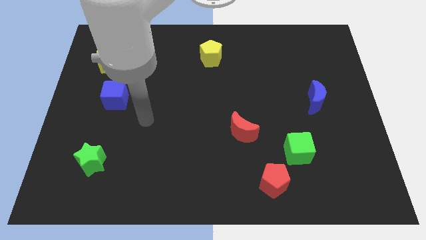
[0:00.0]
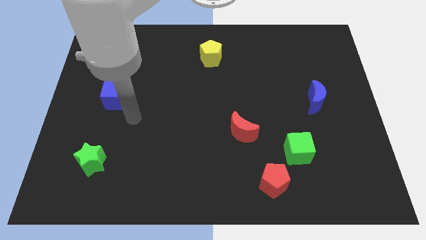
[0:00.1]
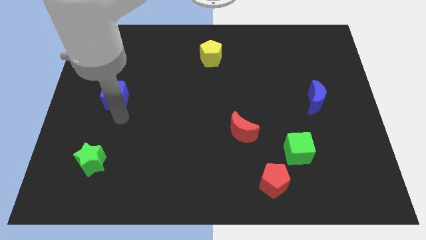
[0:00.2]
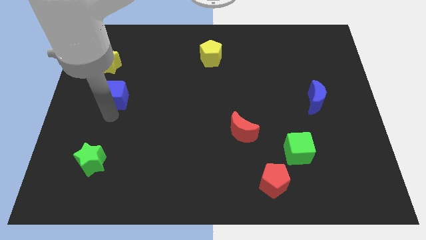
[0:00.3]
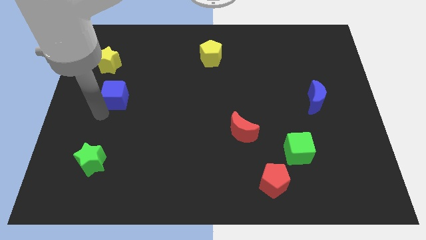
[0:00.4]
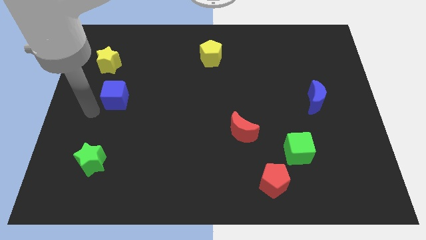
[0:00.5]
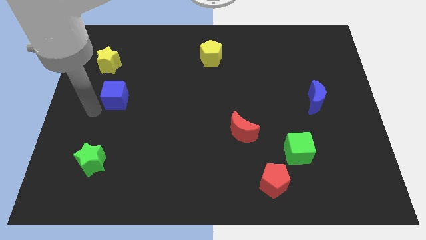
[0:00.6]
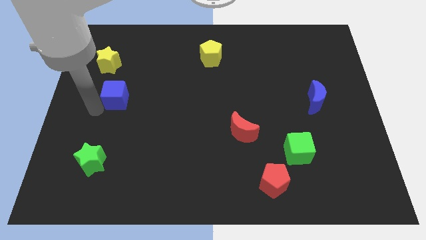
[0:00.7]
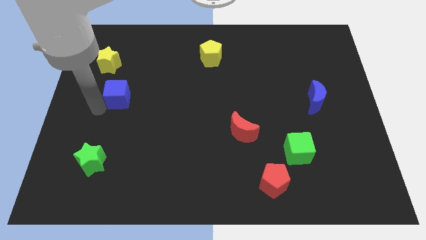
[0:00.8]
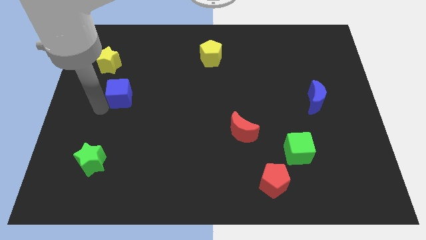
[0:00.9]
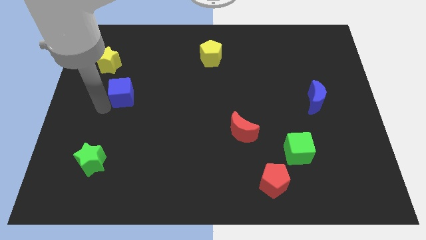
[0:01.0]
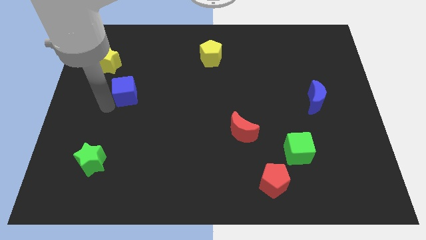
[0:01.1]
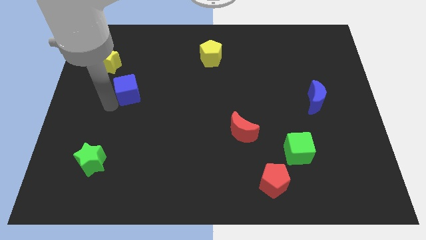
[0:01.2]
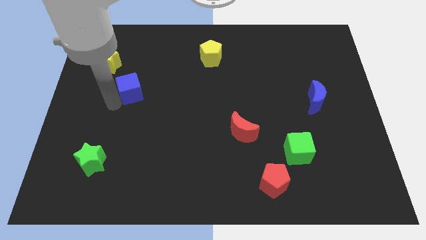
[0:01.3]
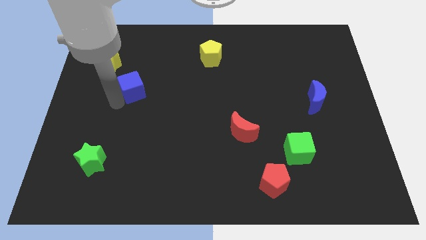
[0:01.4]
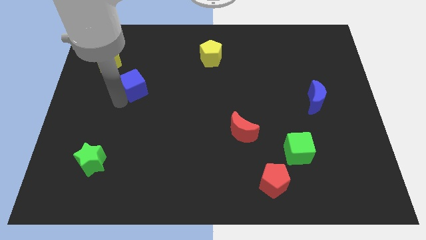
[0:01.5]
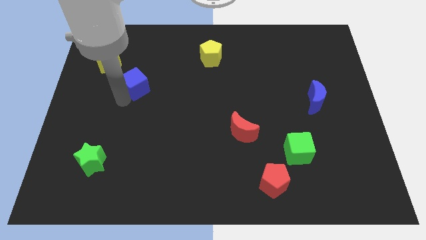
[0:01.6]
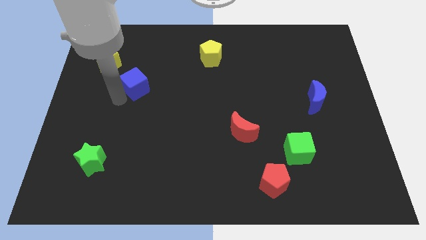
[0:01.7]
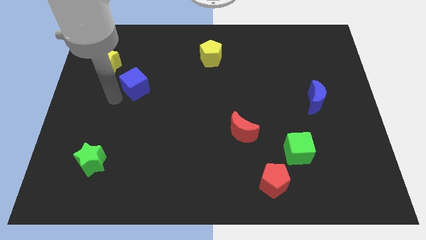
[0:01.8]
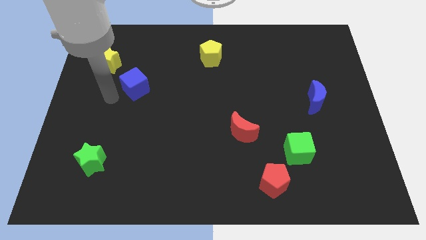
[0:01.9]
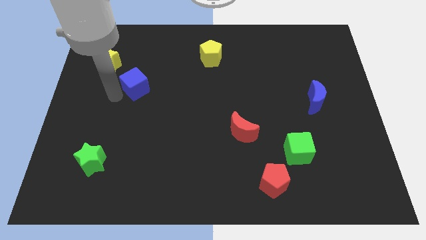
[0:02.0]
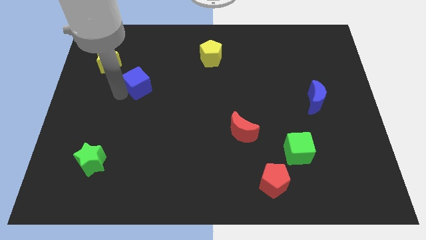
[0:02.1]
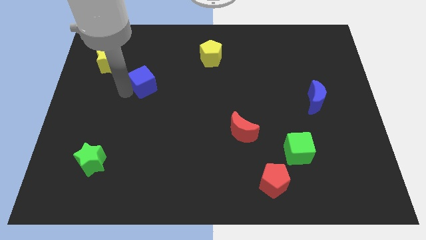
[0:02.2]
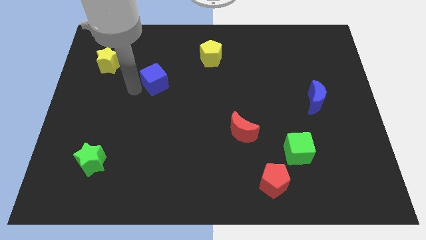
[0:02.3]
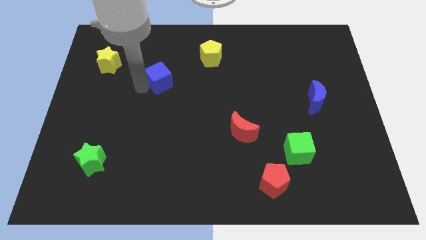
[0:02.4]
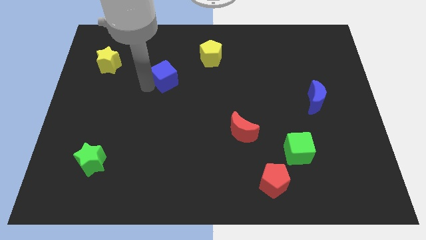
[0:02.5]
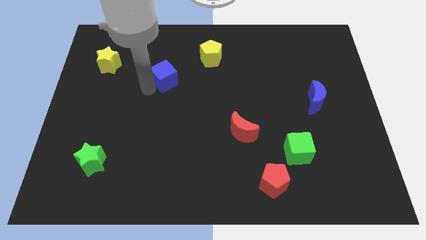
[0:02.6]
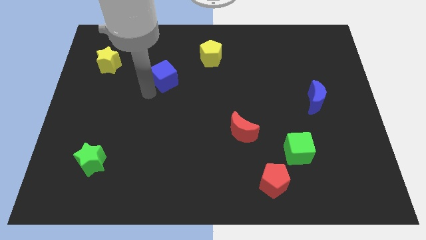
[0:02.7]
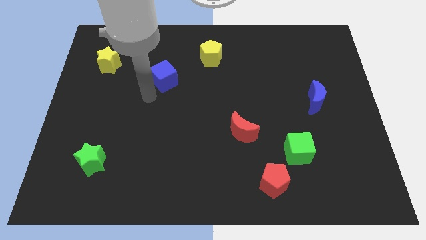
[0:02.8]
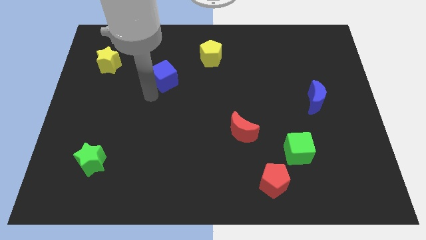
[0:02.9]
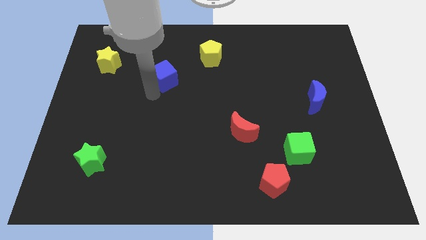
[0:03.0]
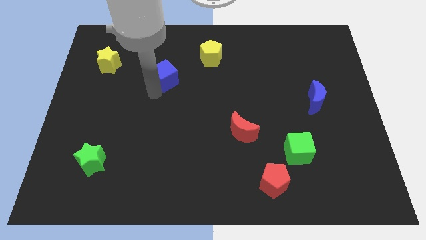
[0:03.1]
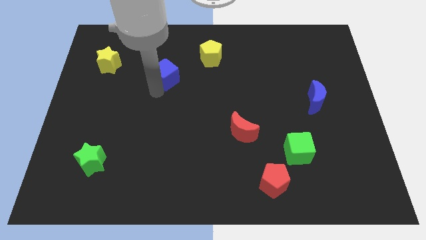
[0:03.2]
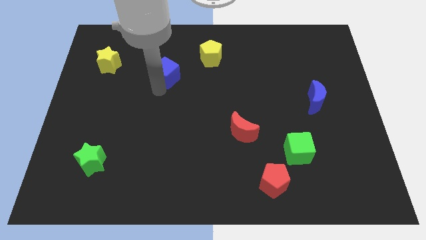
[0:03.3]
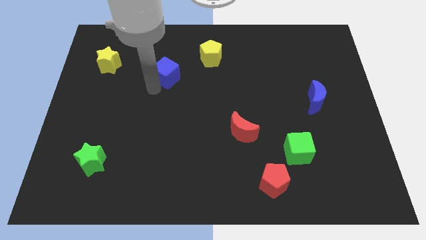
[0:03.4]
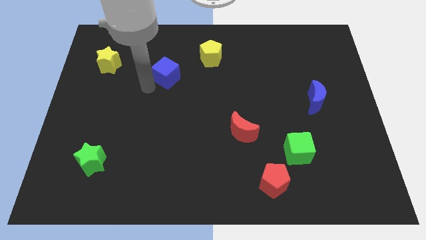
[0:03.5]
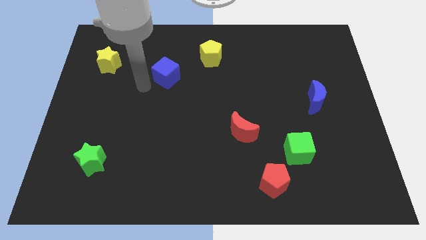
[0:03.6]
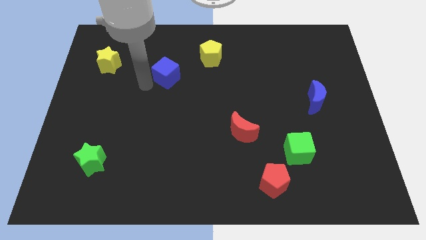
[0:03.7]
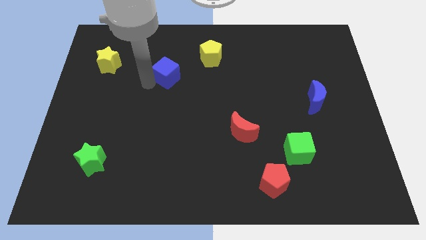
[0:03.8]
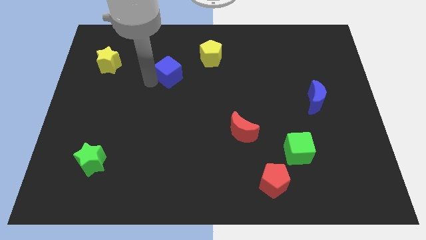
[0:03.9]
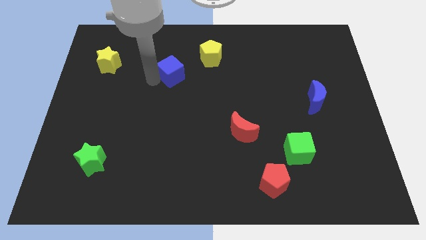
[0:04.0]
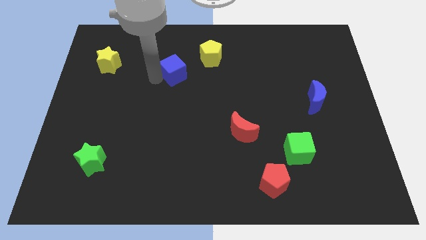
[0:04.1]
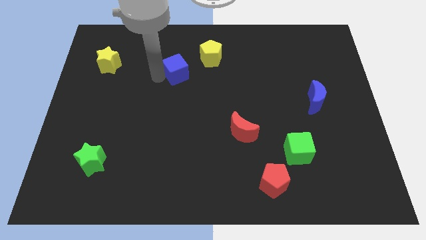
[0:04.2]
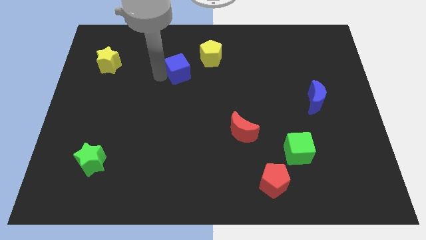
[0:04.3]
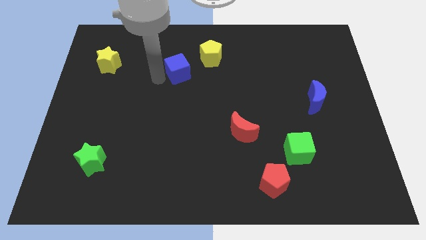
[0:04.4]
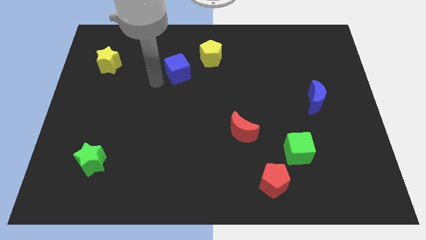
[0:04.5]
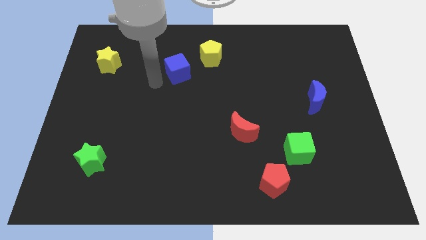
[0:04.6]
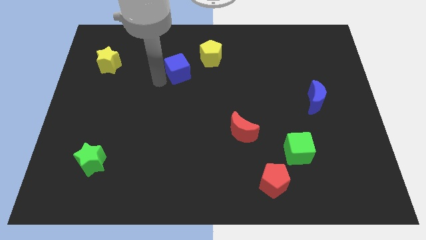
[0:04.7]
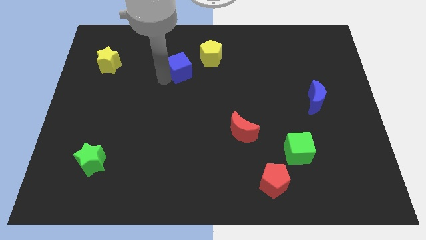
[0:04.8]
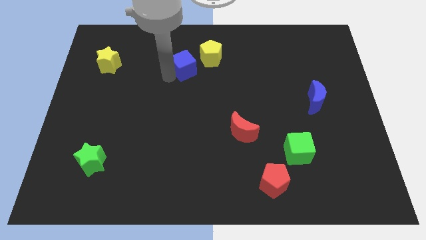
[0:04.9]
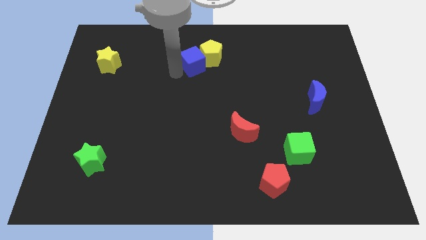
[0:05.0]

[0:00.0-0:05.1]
push the blue cube close to the yellow pentagon

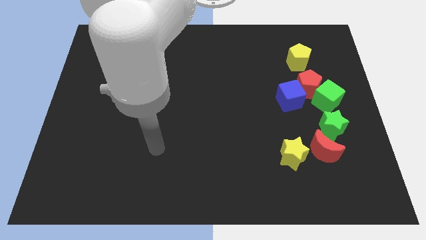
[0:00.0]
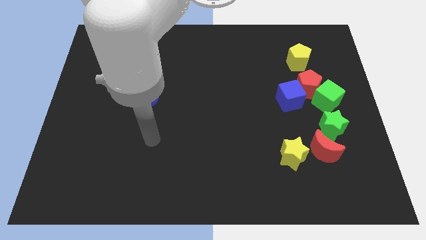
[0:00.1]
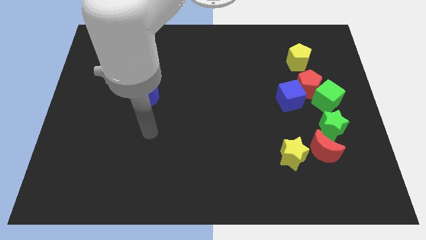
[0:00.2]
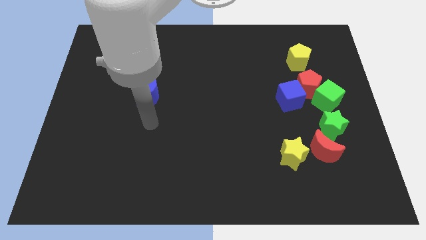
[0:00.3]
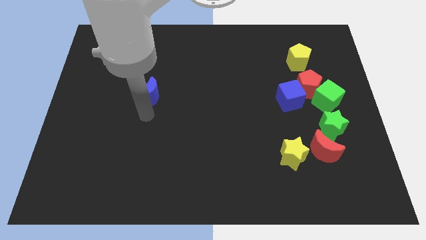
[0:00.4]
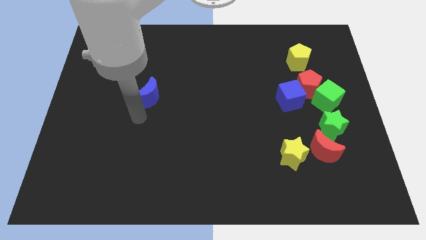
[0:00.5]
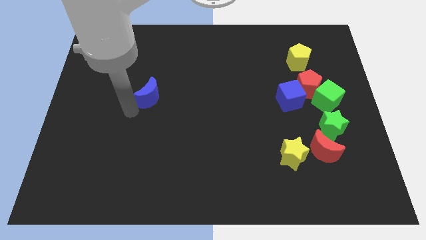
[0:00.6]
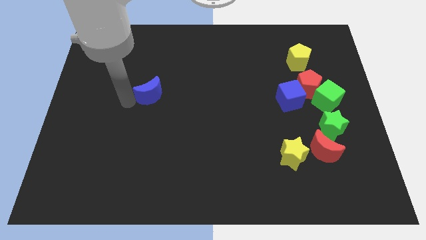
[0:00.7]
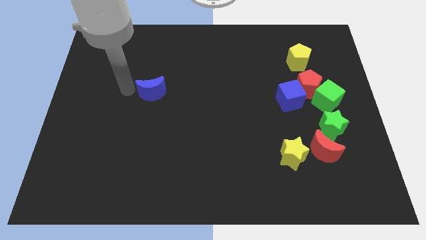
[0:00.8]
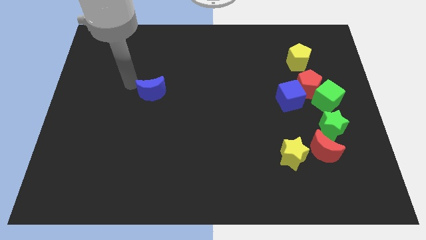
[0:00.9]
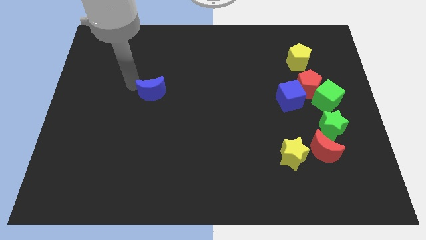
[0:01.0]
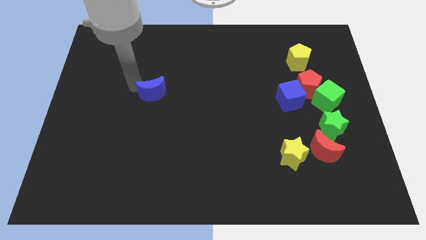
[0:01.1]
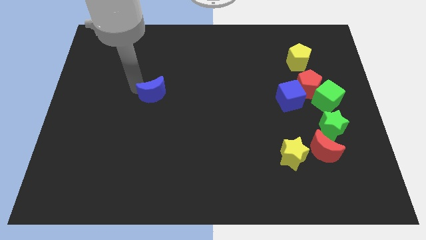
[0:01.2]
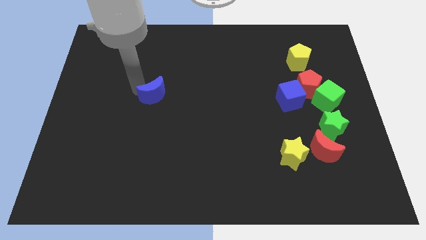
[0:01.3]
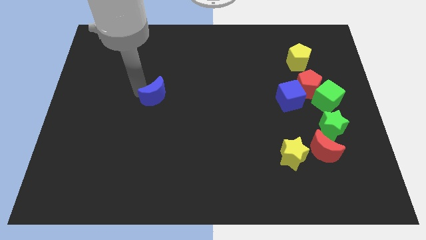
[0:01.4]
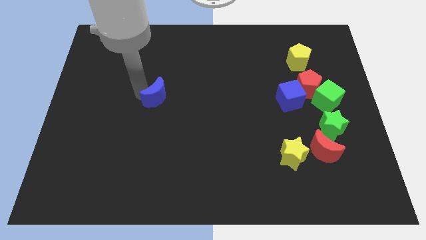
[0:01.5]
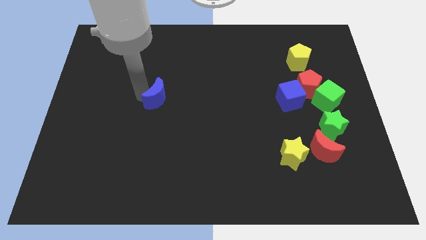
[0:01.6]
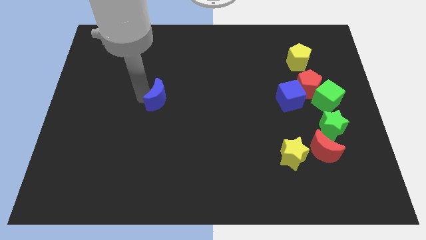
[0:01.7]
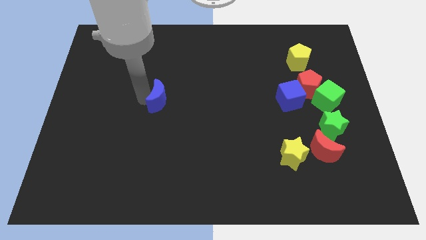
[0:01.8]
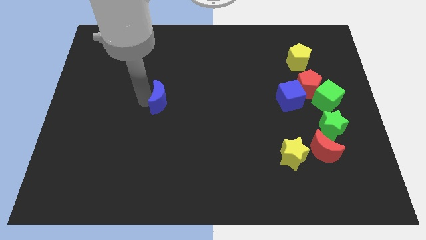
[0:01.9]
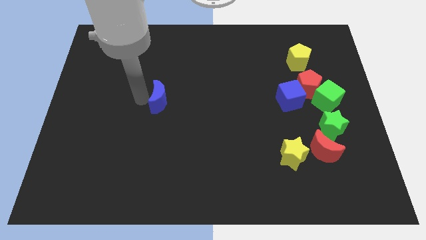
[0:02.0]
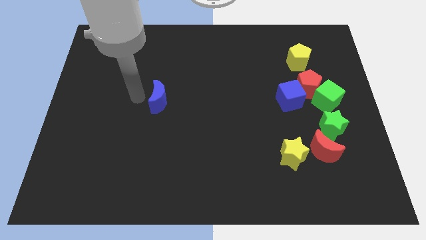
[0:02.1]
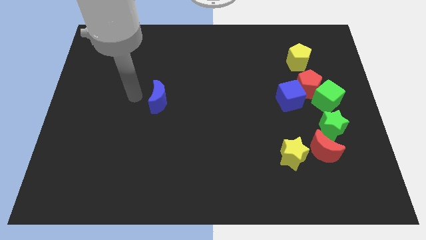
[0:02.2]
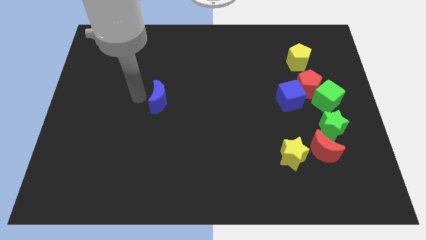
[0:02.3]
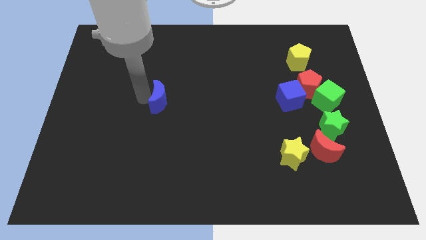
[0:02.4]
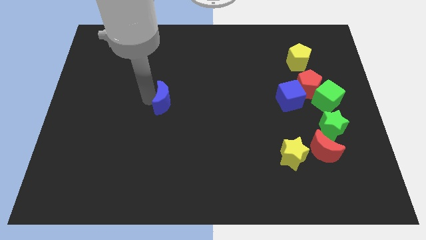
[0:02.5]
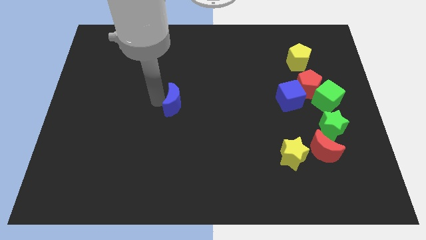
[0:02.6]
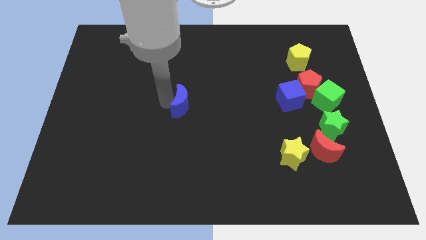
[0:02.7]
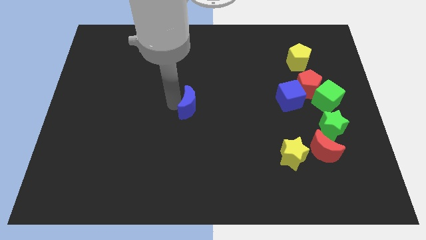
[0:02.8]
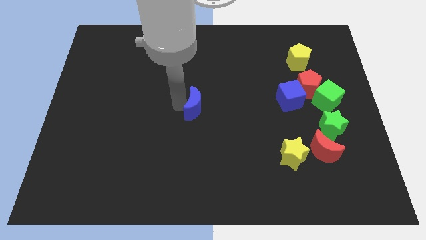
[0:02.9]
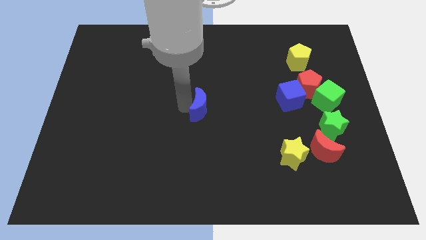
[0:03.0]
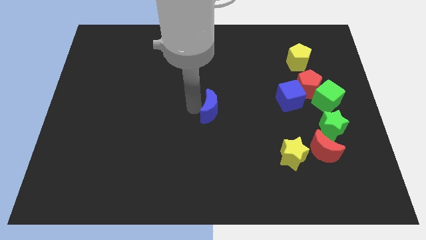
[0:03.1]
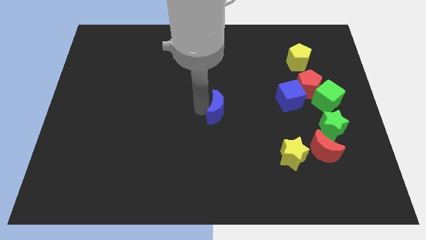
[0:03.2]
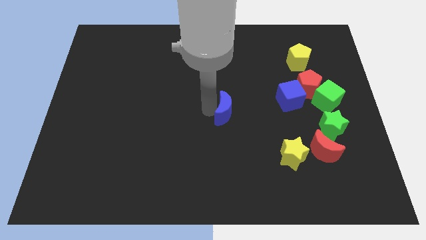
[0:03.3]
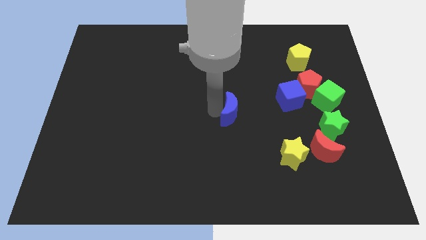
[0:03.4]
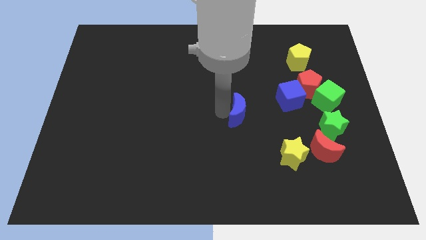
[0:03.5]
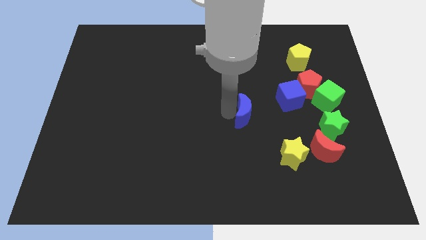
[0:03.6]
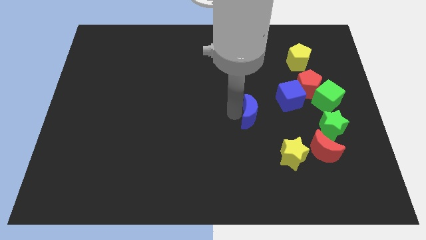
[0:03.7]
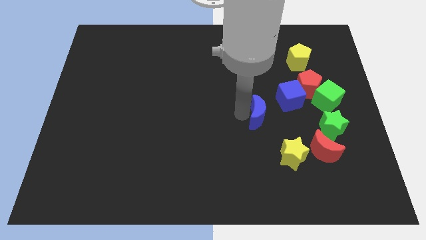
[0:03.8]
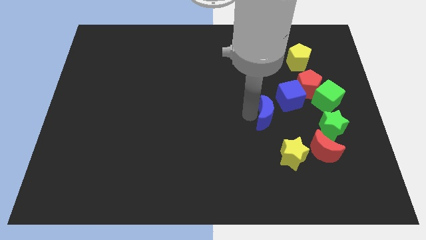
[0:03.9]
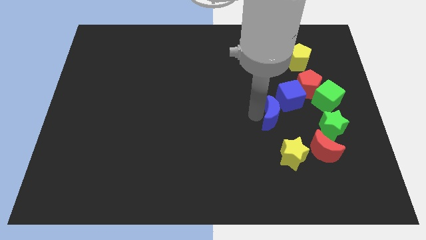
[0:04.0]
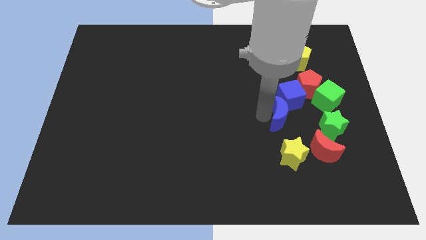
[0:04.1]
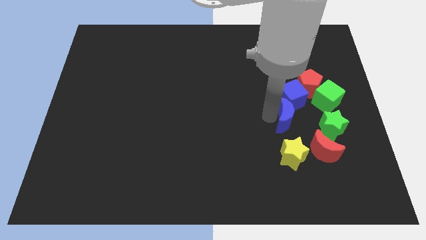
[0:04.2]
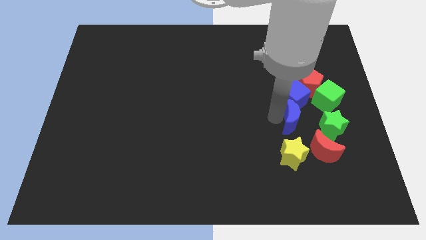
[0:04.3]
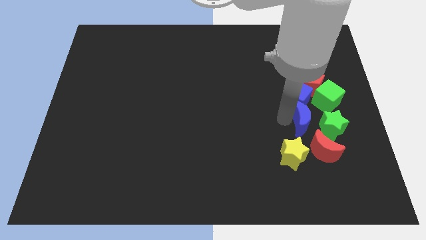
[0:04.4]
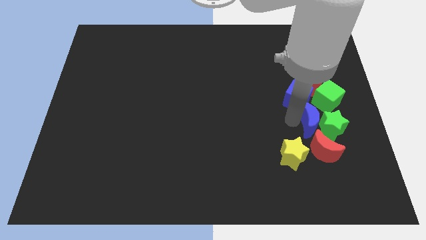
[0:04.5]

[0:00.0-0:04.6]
slide the blue moon to the green star
